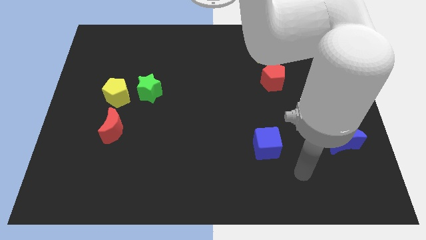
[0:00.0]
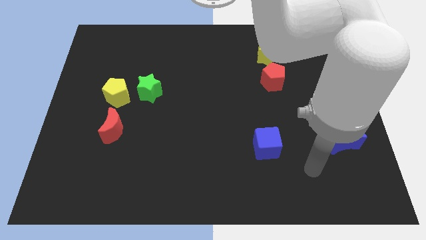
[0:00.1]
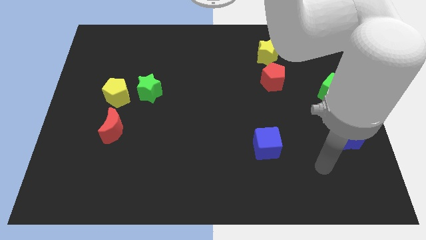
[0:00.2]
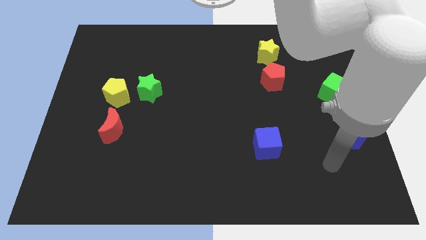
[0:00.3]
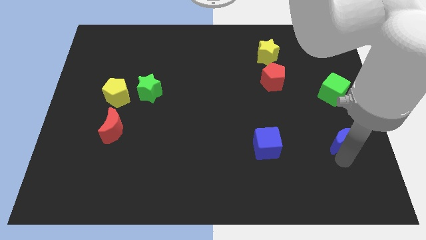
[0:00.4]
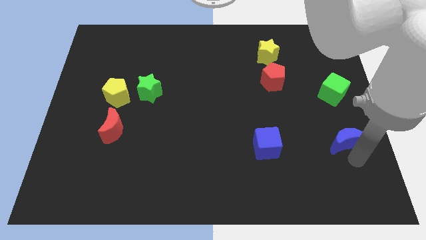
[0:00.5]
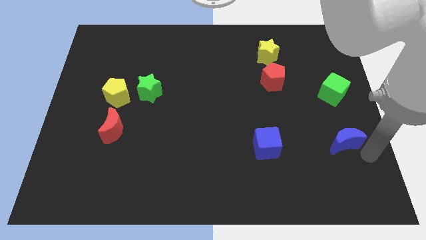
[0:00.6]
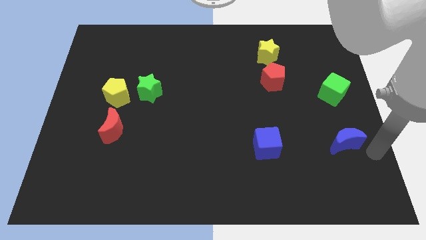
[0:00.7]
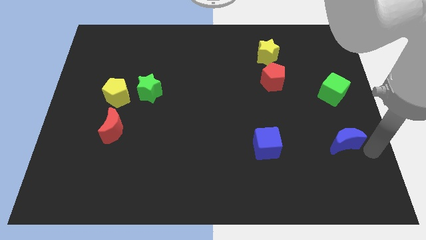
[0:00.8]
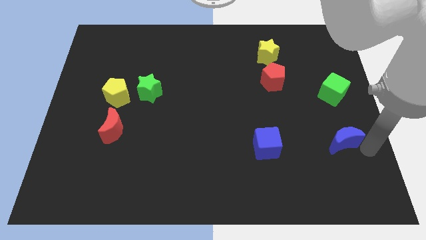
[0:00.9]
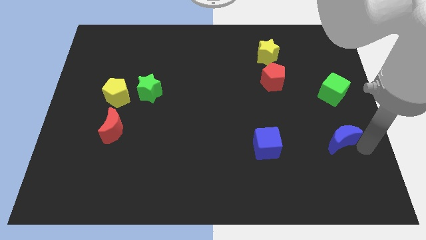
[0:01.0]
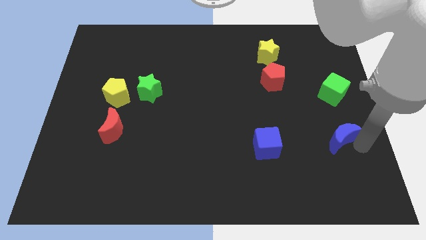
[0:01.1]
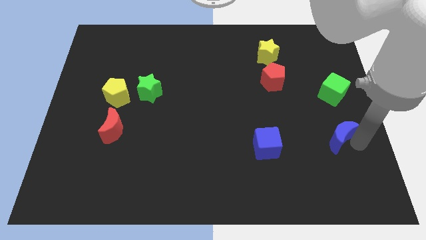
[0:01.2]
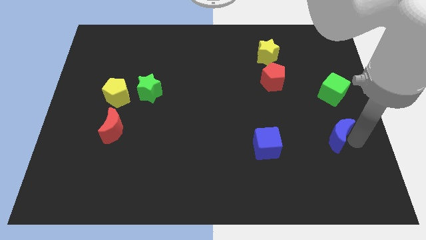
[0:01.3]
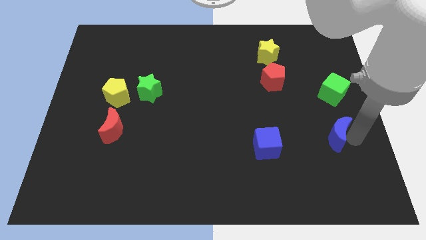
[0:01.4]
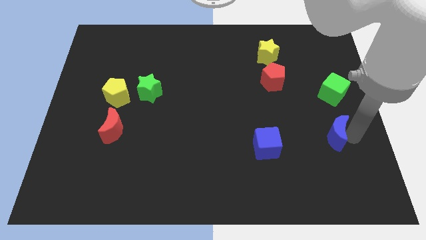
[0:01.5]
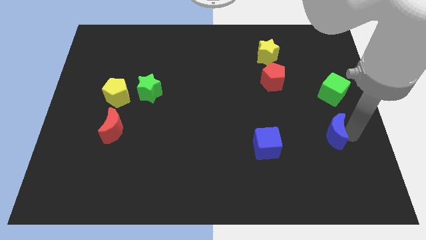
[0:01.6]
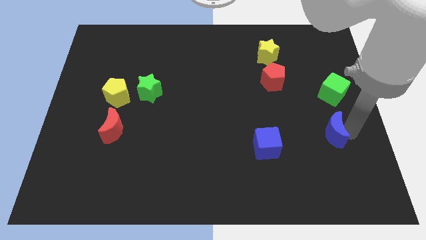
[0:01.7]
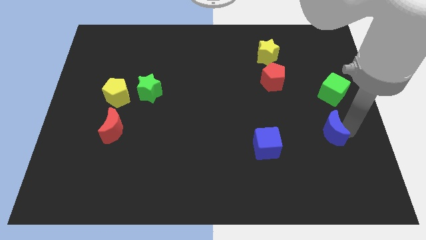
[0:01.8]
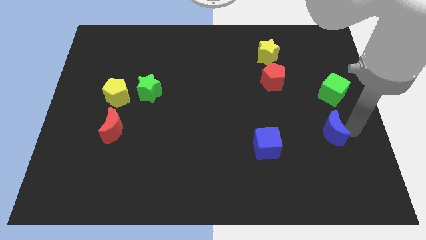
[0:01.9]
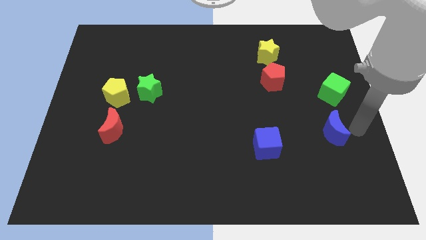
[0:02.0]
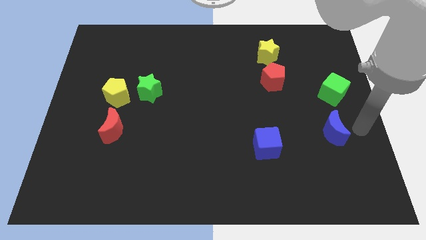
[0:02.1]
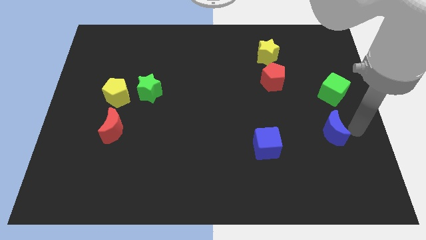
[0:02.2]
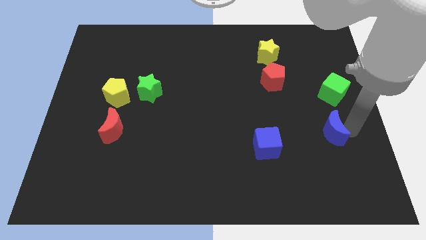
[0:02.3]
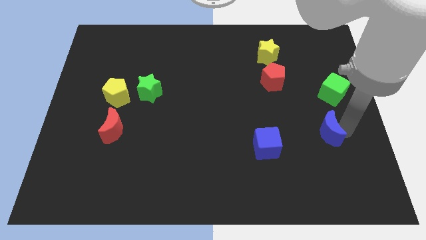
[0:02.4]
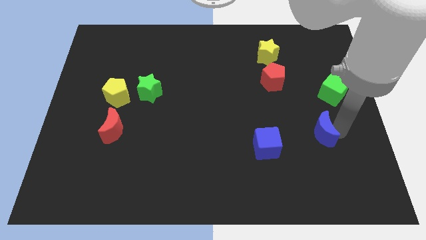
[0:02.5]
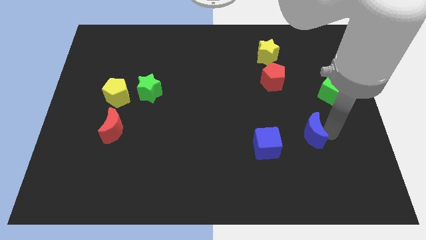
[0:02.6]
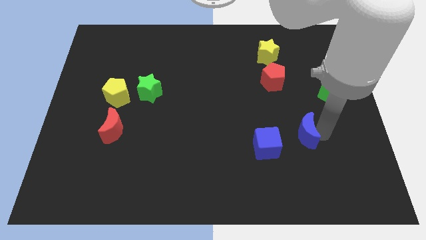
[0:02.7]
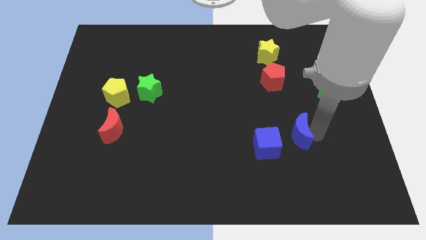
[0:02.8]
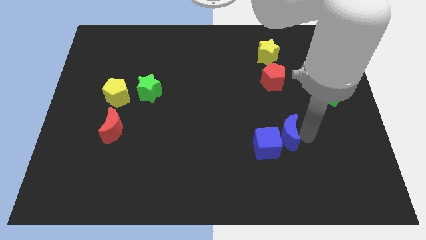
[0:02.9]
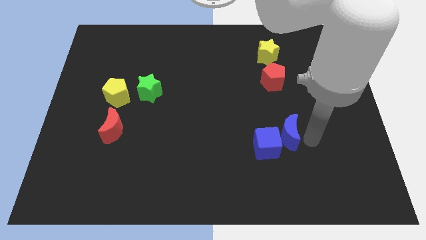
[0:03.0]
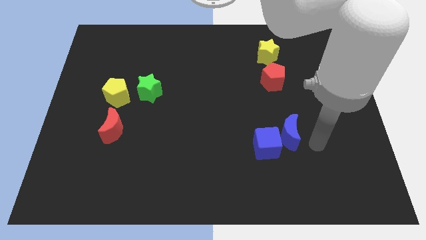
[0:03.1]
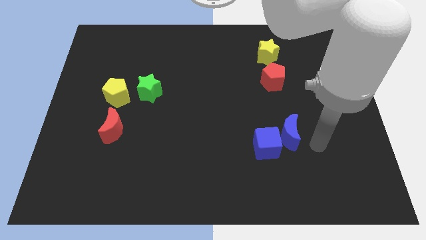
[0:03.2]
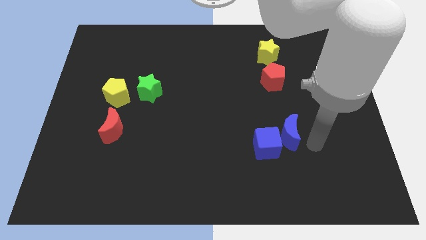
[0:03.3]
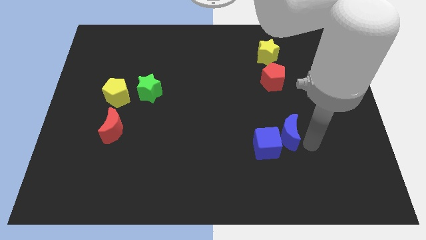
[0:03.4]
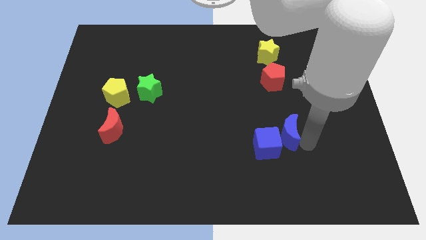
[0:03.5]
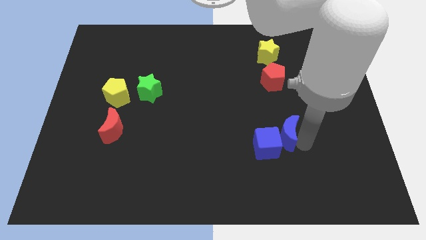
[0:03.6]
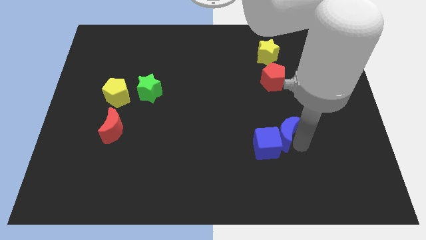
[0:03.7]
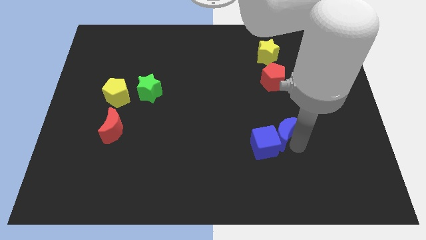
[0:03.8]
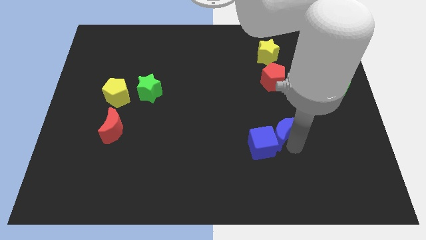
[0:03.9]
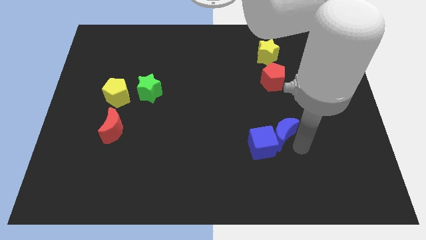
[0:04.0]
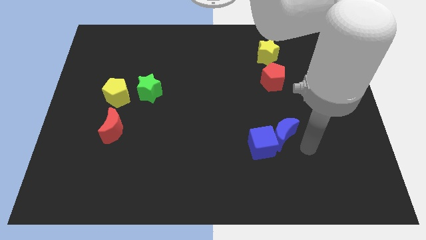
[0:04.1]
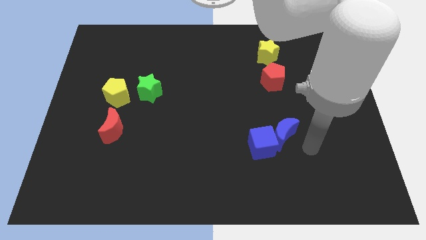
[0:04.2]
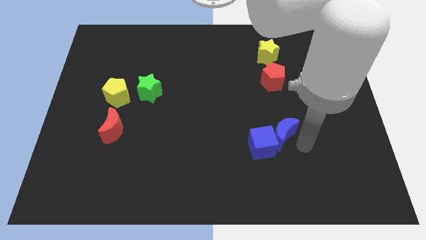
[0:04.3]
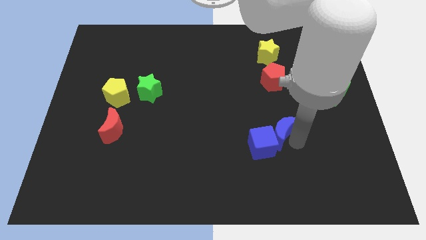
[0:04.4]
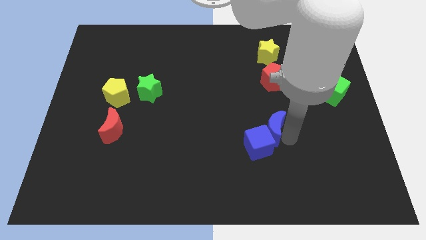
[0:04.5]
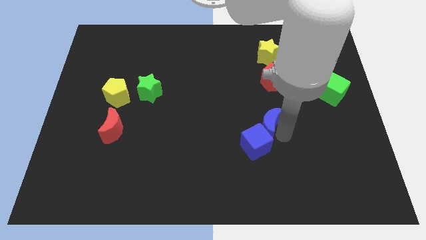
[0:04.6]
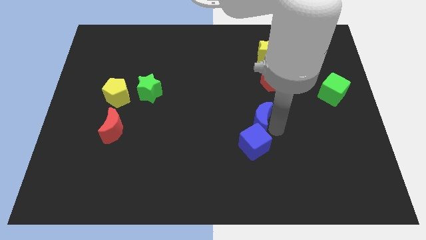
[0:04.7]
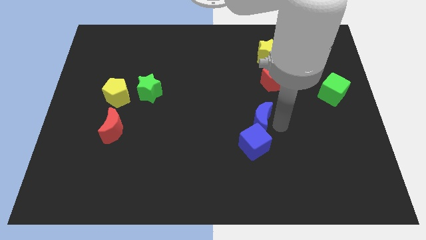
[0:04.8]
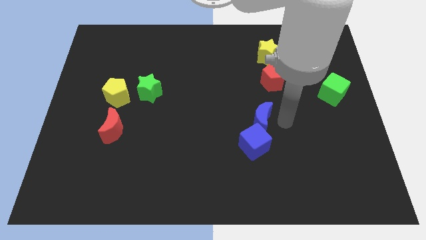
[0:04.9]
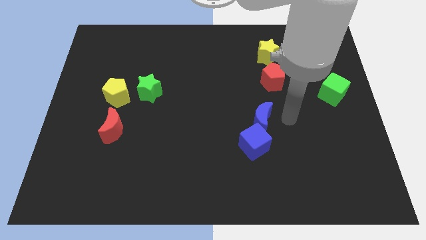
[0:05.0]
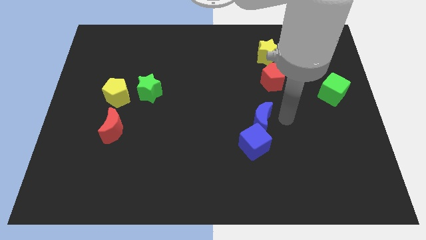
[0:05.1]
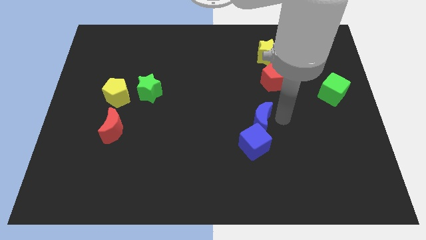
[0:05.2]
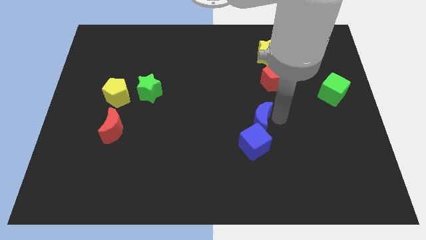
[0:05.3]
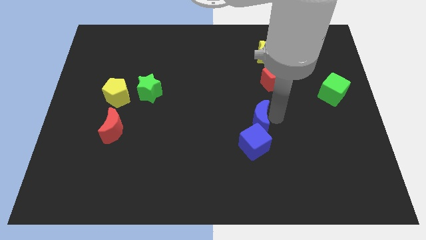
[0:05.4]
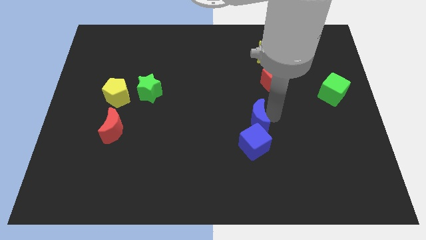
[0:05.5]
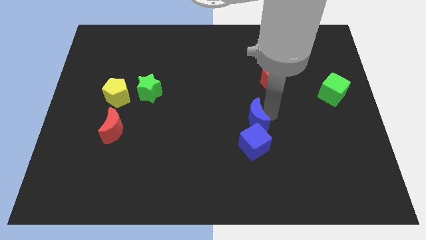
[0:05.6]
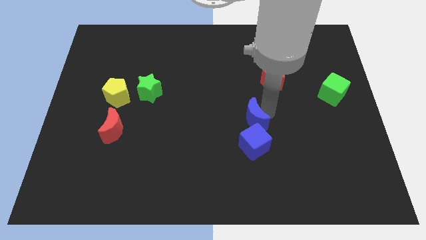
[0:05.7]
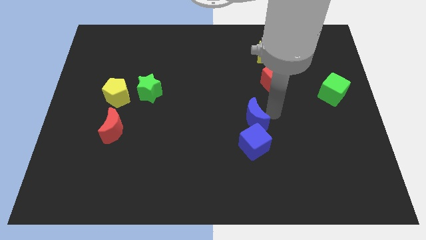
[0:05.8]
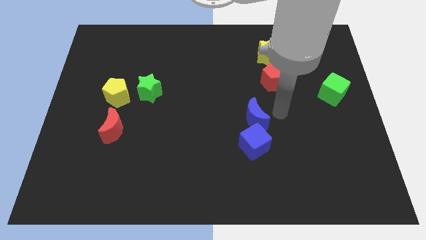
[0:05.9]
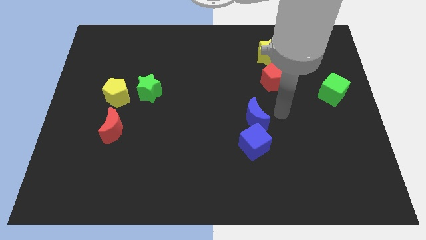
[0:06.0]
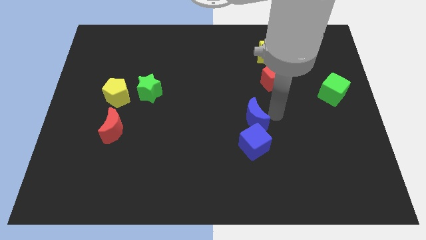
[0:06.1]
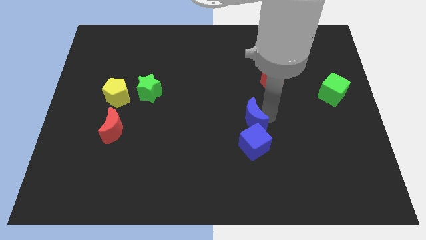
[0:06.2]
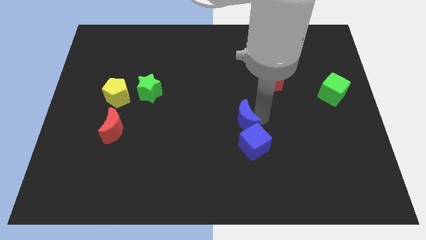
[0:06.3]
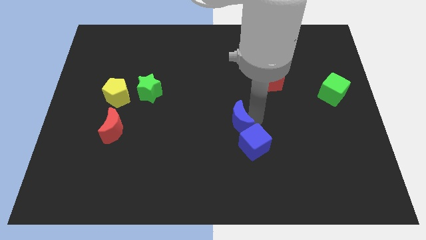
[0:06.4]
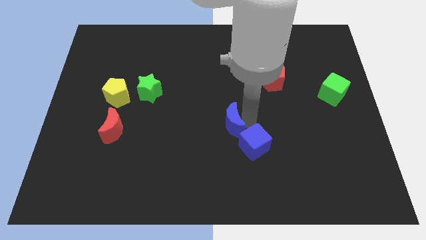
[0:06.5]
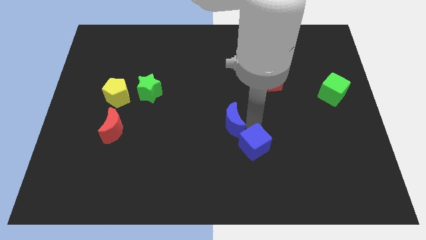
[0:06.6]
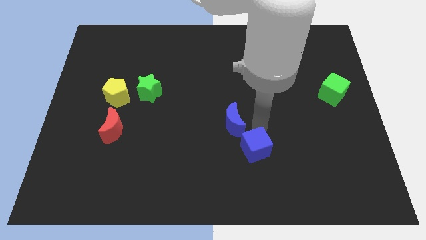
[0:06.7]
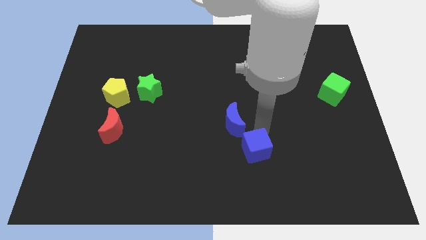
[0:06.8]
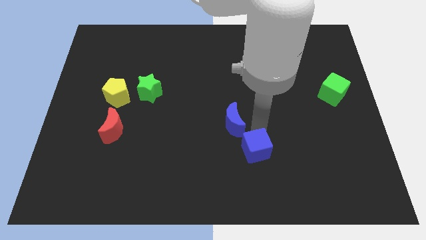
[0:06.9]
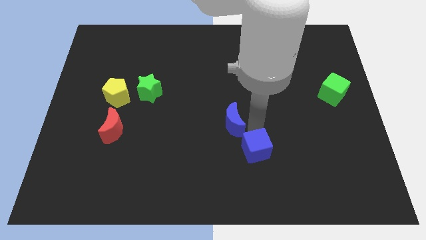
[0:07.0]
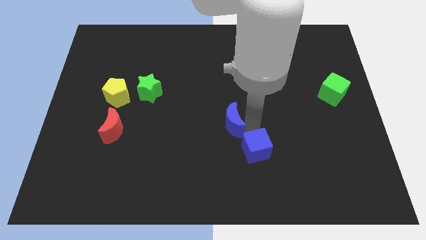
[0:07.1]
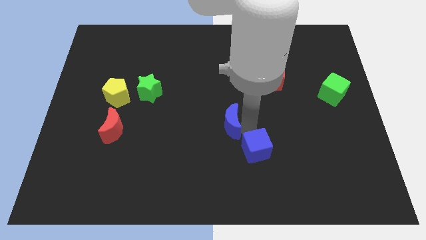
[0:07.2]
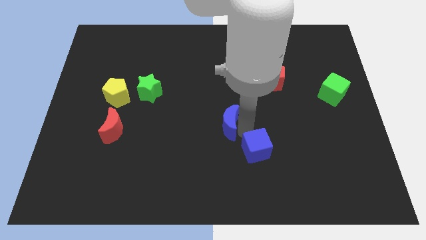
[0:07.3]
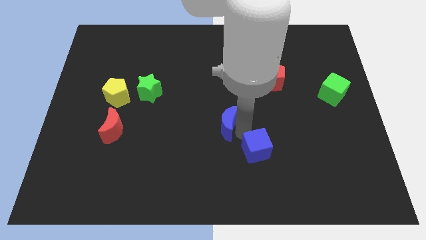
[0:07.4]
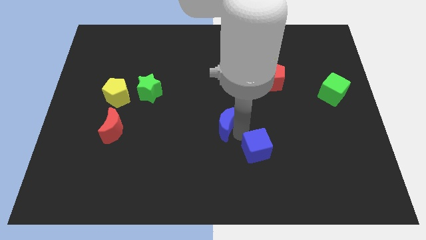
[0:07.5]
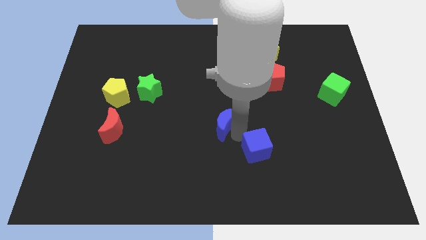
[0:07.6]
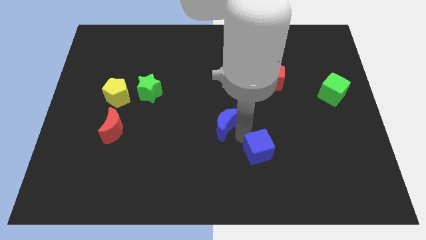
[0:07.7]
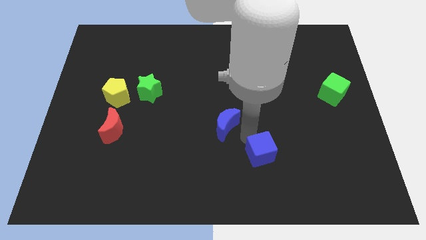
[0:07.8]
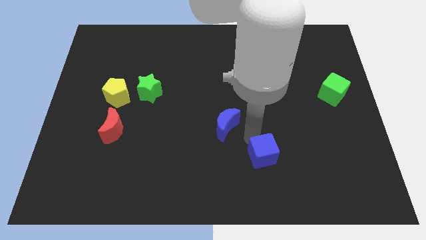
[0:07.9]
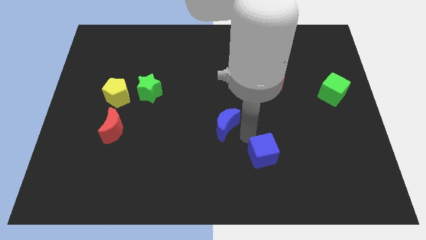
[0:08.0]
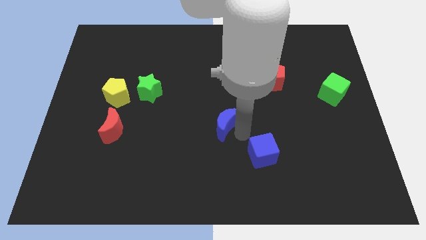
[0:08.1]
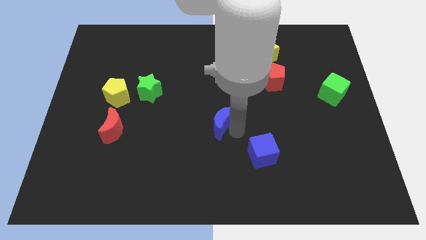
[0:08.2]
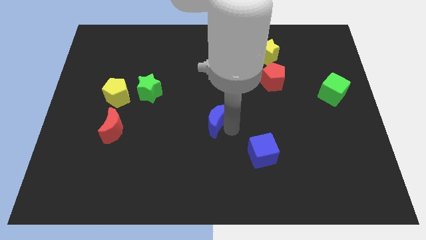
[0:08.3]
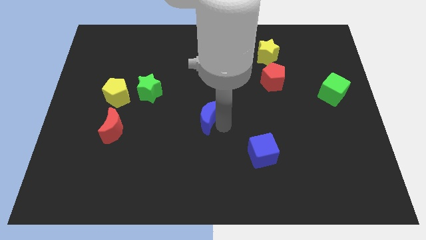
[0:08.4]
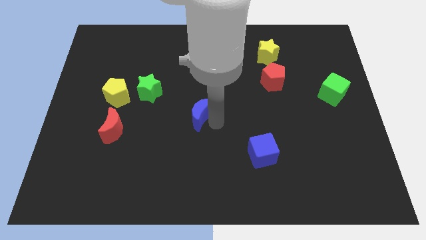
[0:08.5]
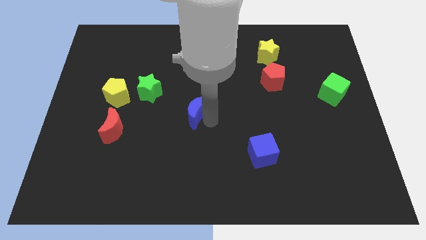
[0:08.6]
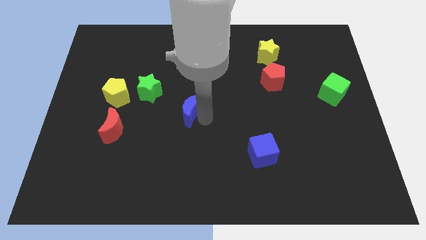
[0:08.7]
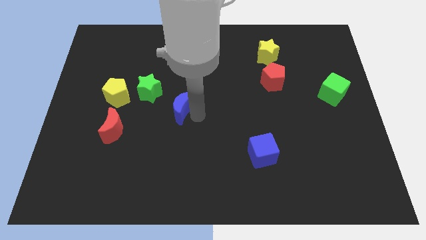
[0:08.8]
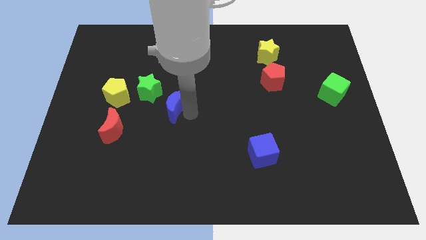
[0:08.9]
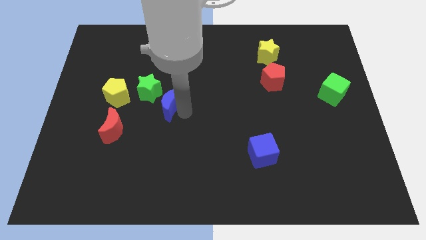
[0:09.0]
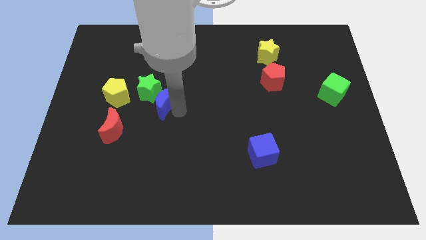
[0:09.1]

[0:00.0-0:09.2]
slide the blue moon to the green star
